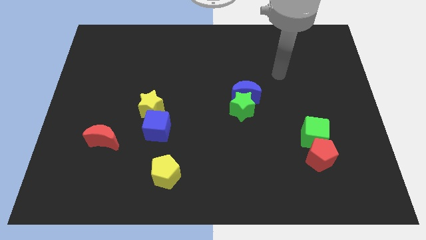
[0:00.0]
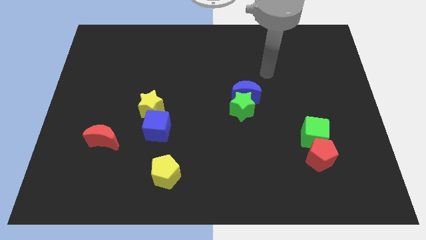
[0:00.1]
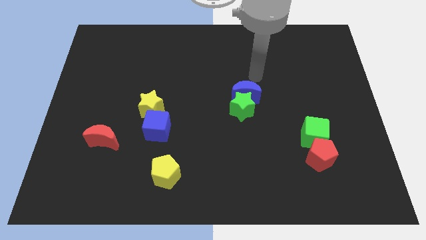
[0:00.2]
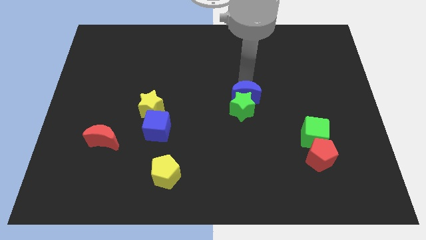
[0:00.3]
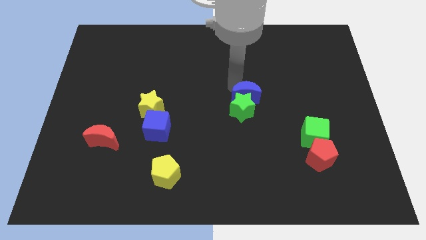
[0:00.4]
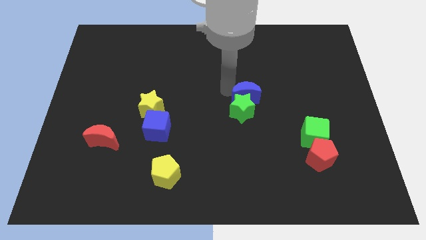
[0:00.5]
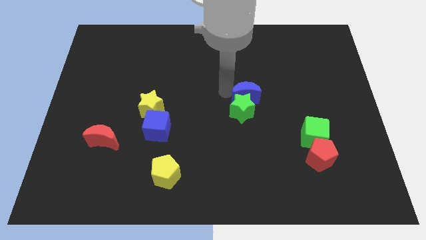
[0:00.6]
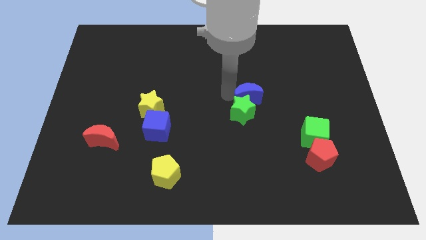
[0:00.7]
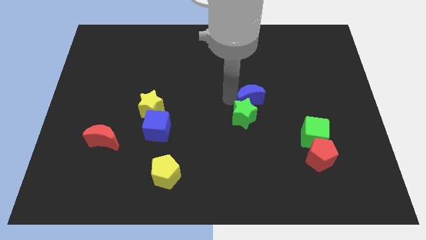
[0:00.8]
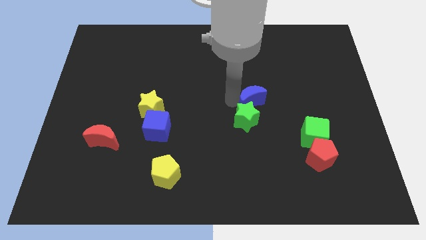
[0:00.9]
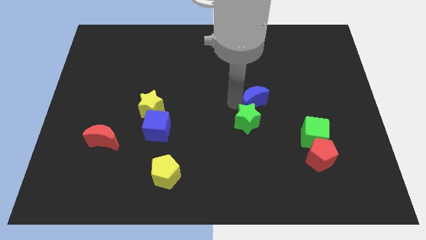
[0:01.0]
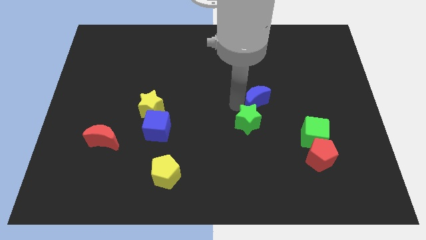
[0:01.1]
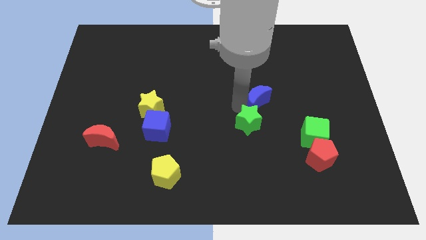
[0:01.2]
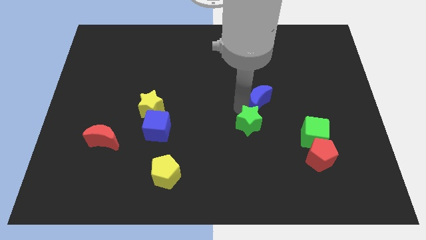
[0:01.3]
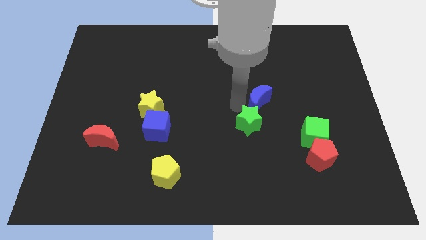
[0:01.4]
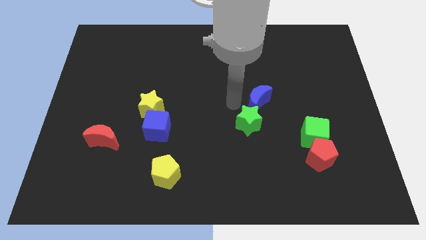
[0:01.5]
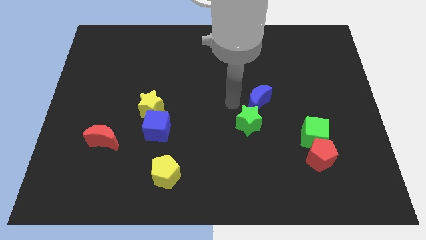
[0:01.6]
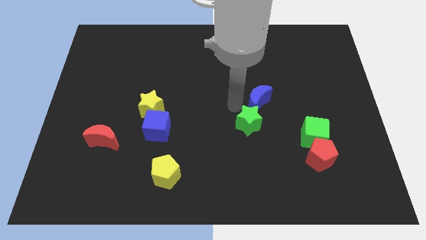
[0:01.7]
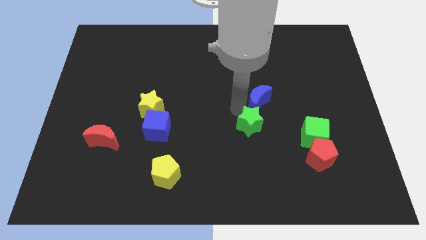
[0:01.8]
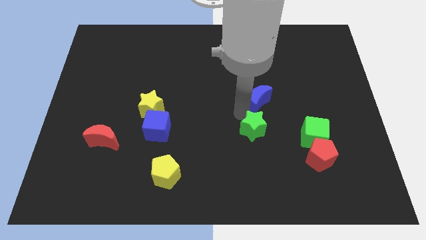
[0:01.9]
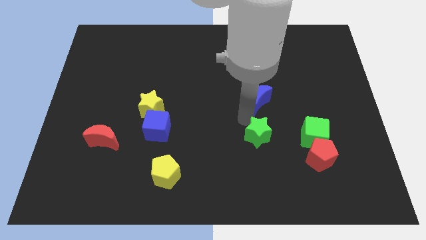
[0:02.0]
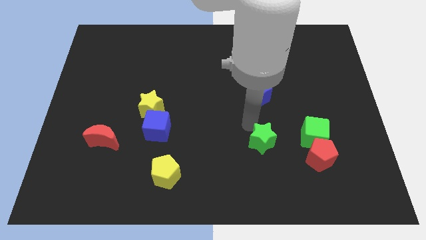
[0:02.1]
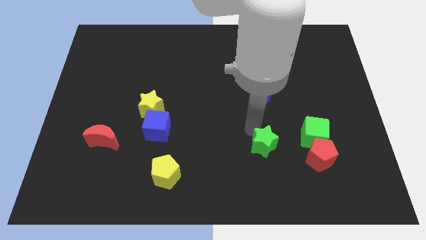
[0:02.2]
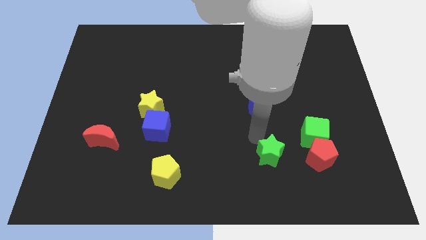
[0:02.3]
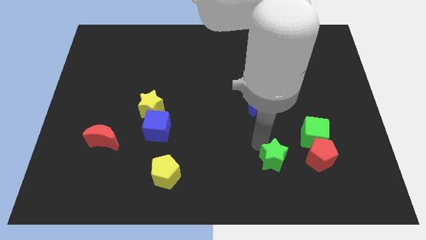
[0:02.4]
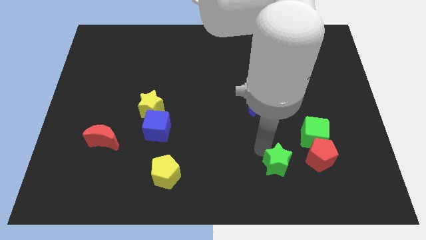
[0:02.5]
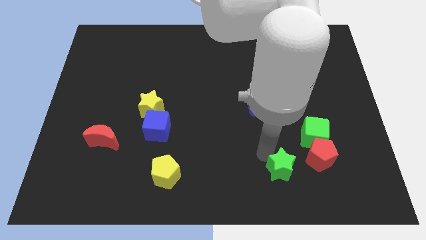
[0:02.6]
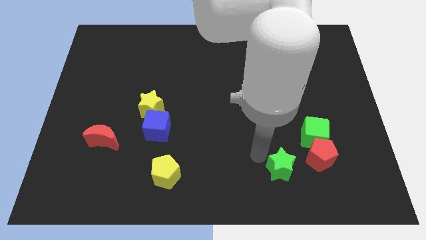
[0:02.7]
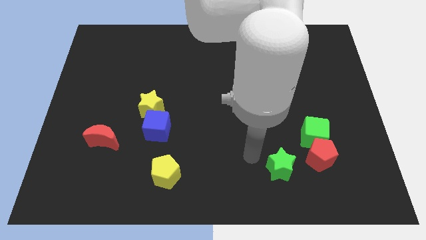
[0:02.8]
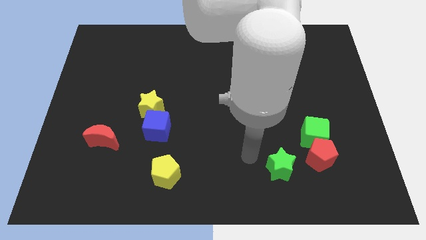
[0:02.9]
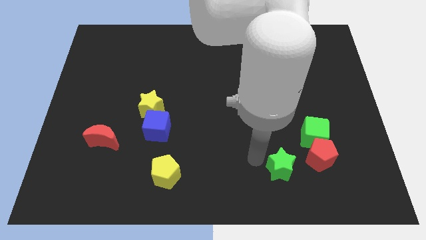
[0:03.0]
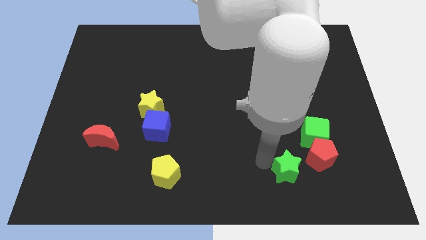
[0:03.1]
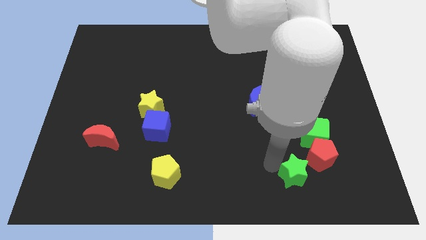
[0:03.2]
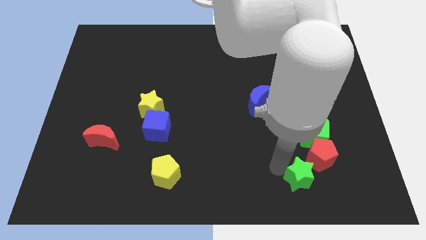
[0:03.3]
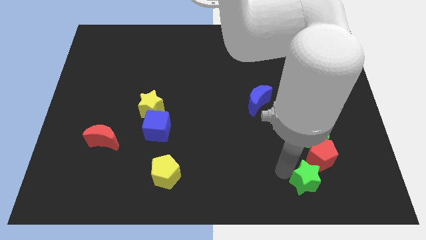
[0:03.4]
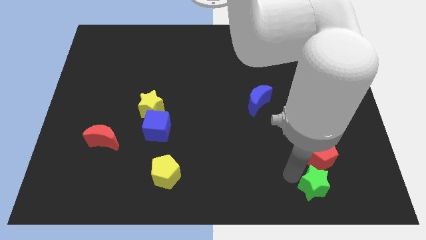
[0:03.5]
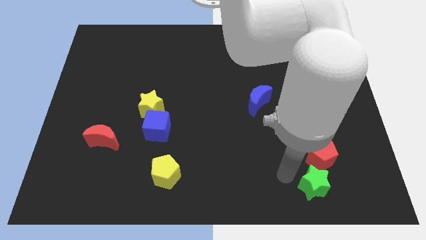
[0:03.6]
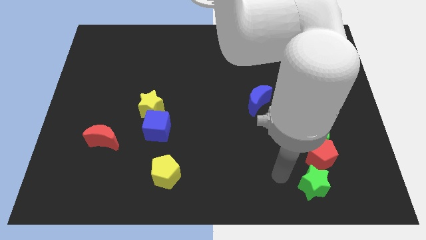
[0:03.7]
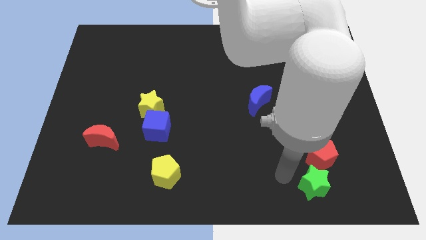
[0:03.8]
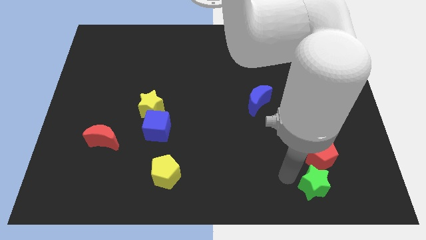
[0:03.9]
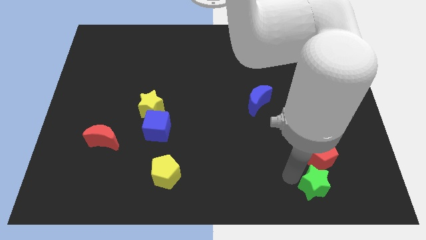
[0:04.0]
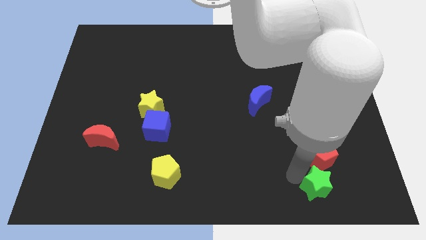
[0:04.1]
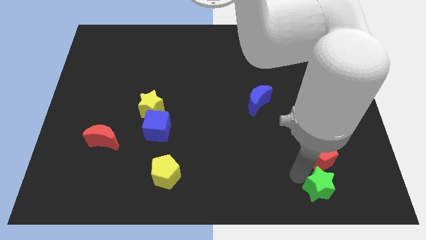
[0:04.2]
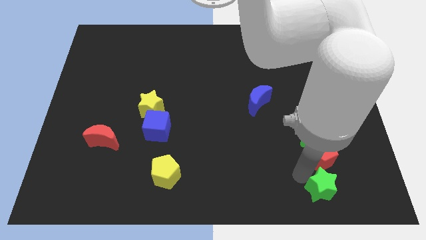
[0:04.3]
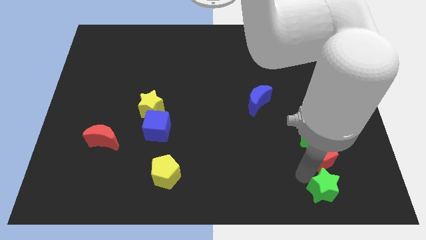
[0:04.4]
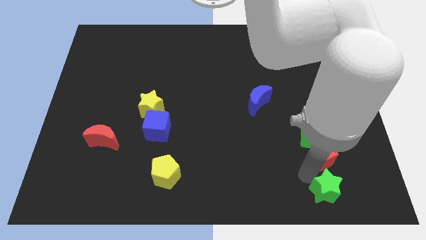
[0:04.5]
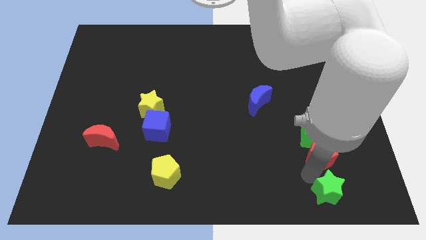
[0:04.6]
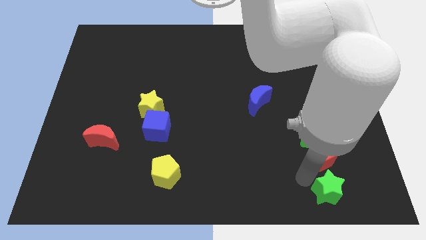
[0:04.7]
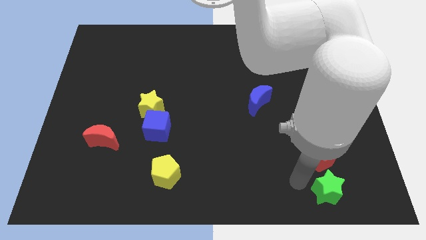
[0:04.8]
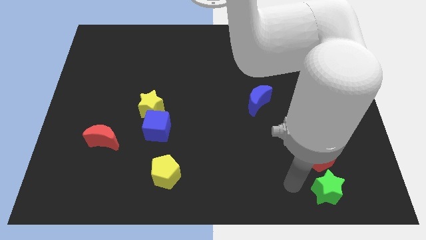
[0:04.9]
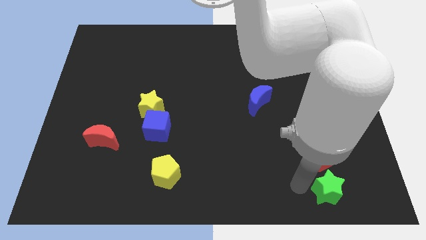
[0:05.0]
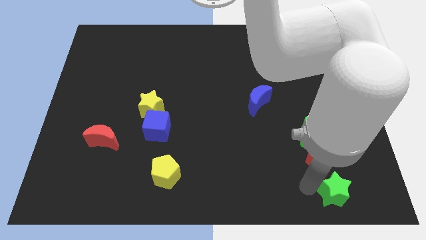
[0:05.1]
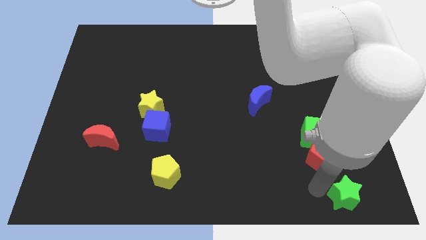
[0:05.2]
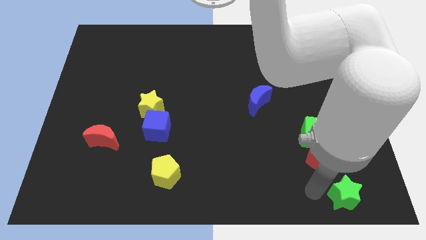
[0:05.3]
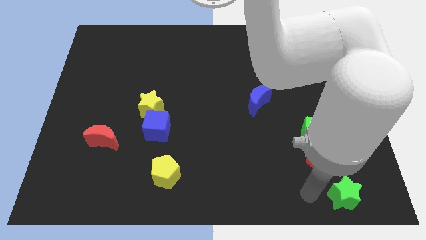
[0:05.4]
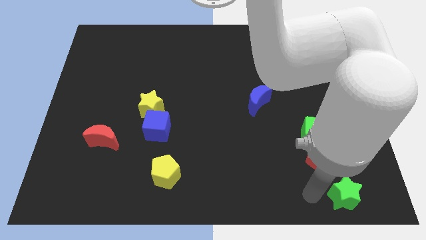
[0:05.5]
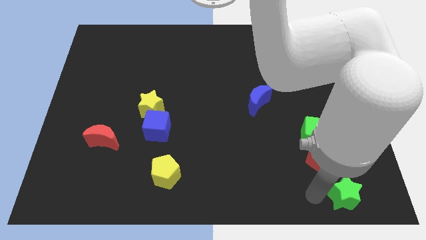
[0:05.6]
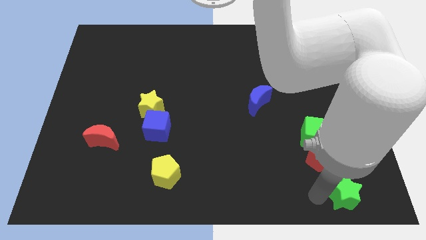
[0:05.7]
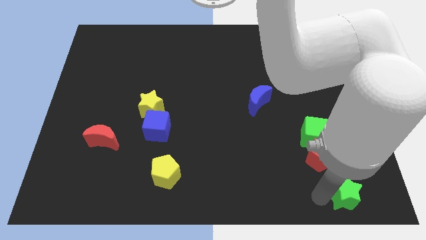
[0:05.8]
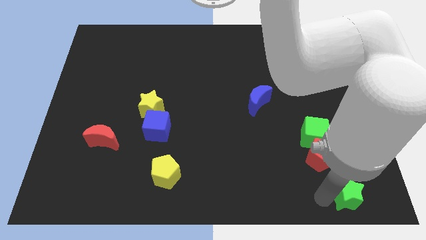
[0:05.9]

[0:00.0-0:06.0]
slide the green star to the bottom right of the board

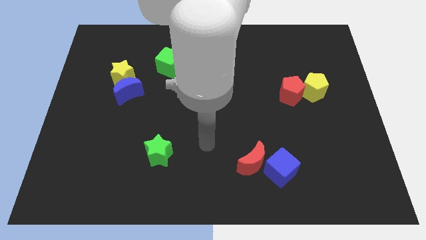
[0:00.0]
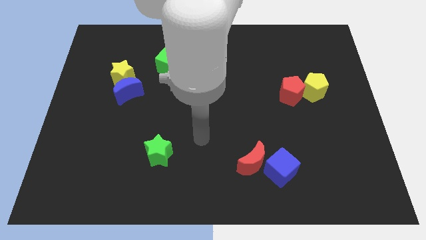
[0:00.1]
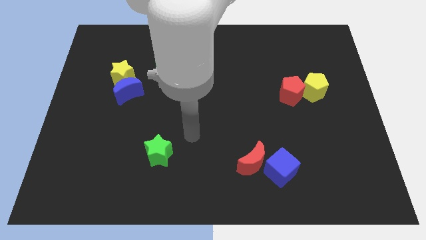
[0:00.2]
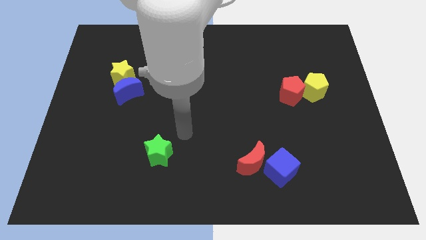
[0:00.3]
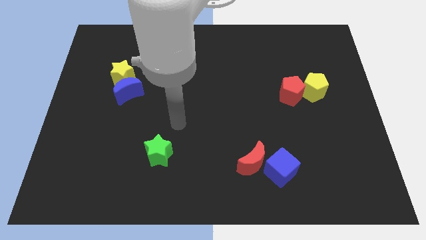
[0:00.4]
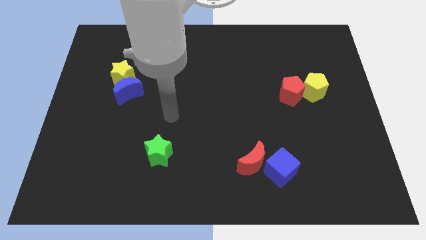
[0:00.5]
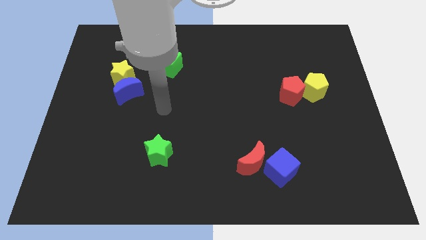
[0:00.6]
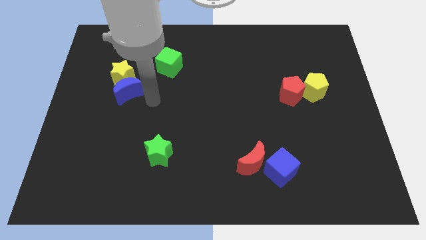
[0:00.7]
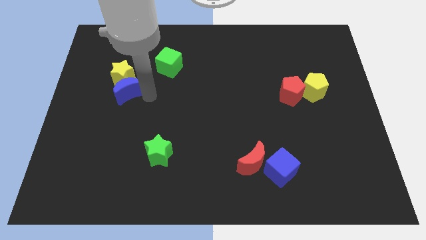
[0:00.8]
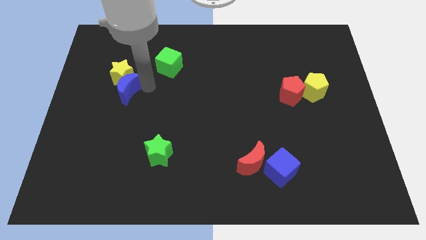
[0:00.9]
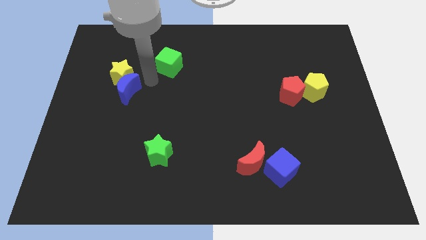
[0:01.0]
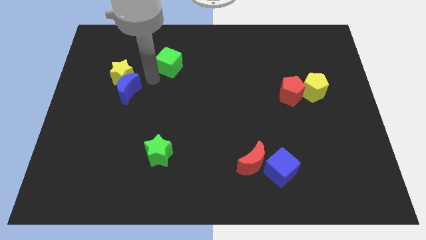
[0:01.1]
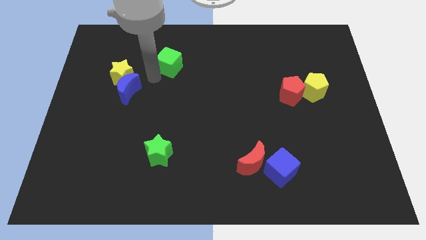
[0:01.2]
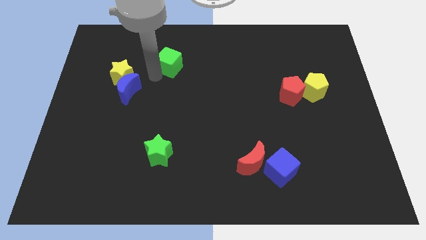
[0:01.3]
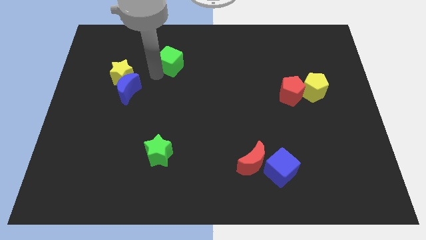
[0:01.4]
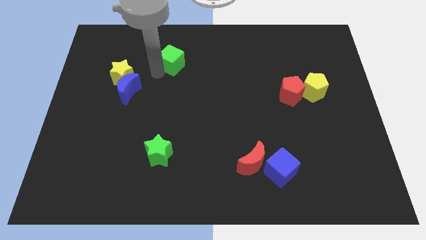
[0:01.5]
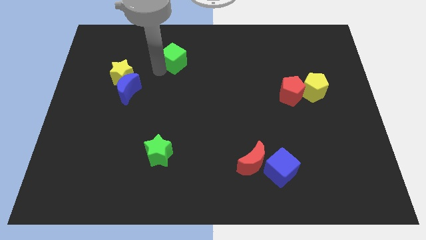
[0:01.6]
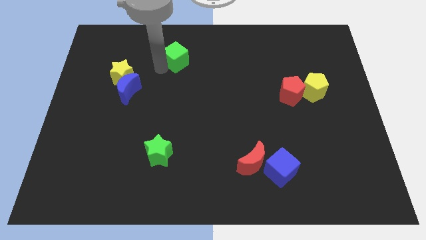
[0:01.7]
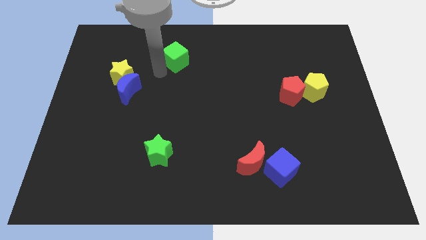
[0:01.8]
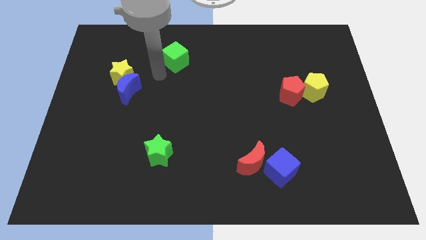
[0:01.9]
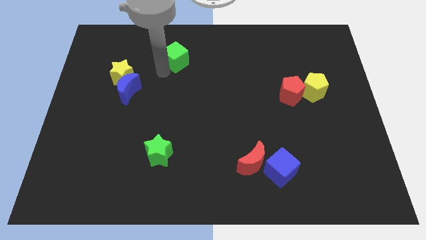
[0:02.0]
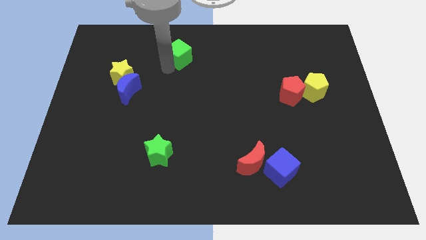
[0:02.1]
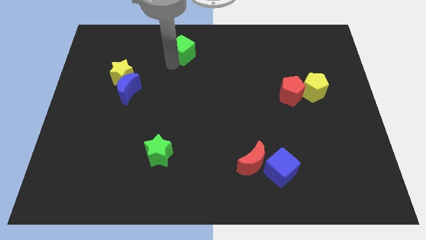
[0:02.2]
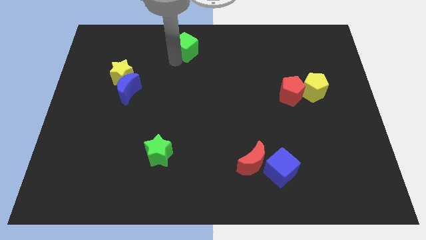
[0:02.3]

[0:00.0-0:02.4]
put the green cube to the towards your base
